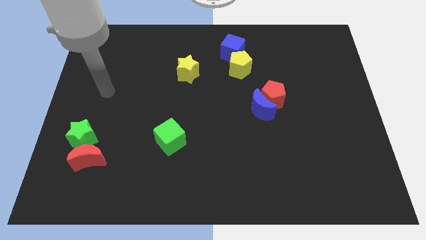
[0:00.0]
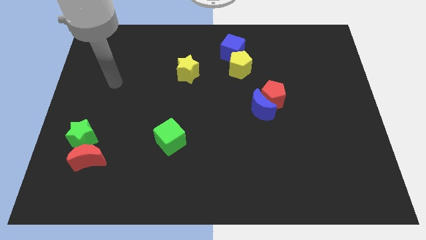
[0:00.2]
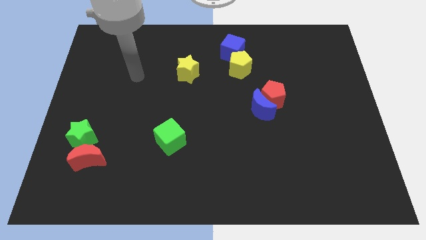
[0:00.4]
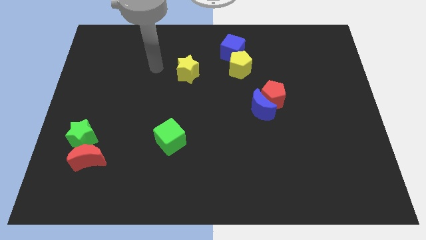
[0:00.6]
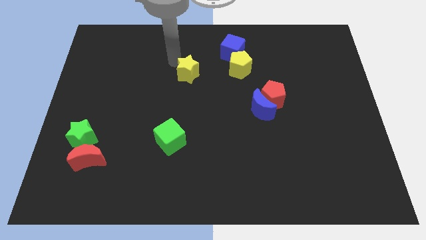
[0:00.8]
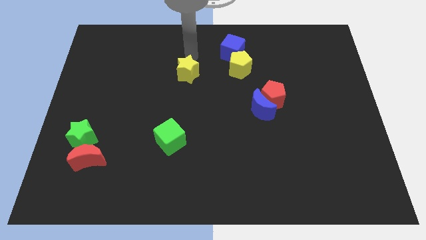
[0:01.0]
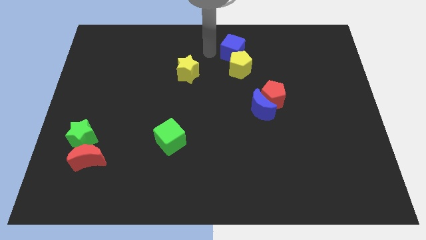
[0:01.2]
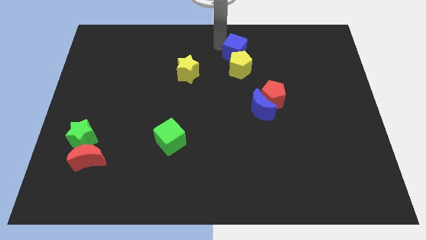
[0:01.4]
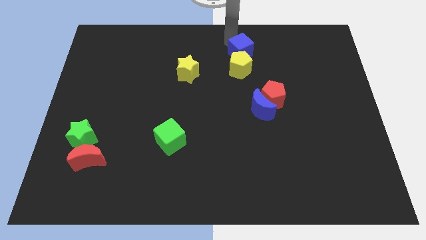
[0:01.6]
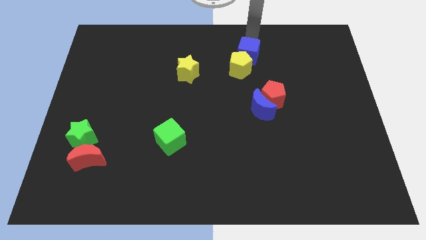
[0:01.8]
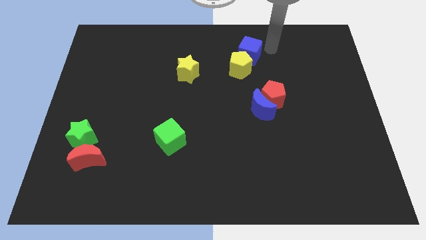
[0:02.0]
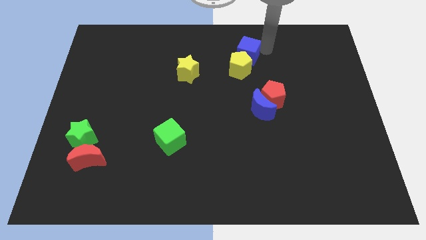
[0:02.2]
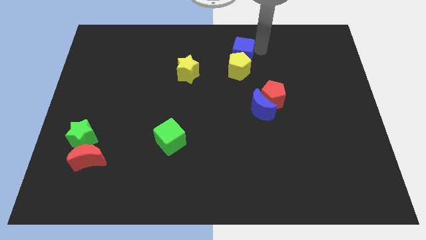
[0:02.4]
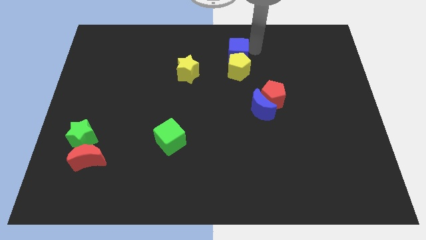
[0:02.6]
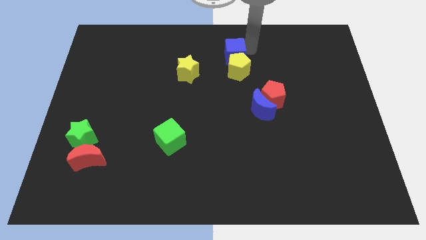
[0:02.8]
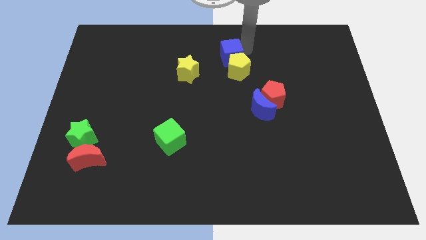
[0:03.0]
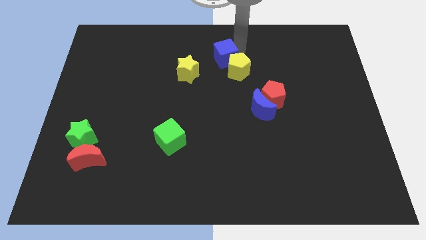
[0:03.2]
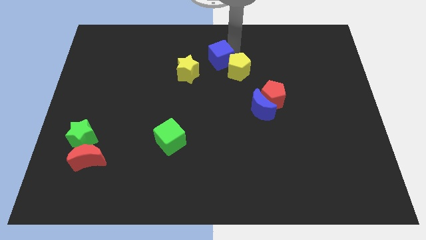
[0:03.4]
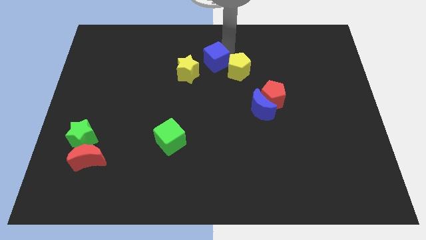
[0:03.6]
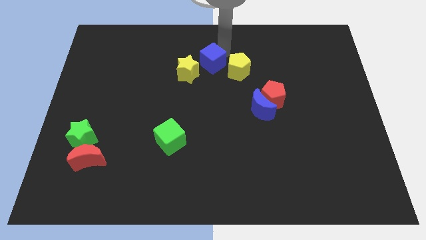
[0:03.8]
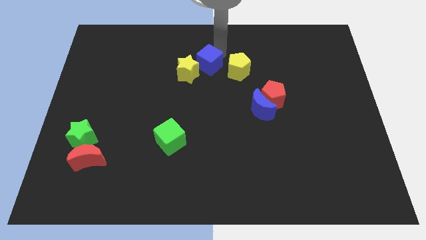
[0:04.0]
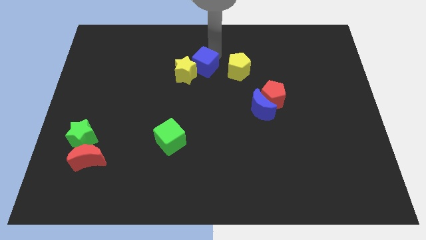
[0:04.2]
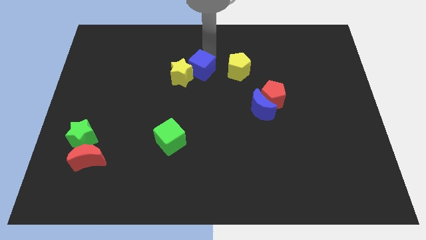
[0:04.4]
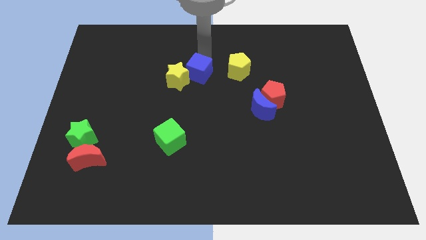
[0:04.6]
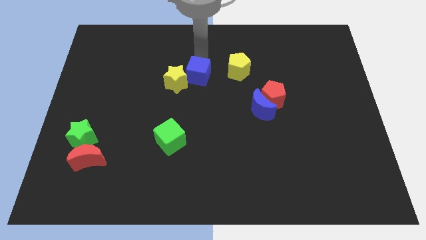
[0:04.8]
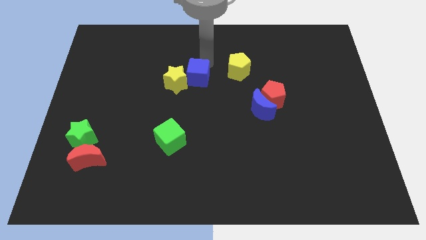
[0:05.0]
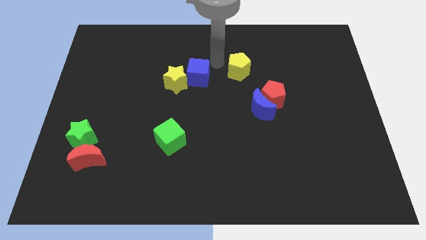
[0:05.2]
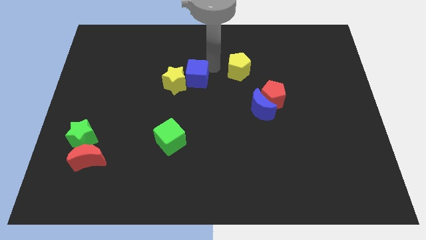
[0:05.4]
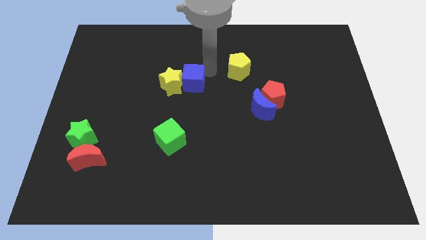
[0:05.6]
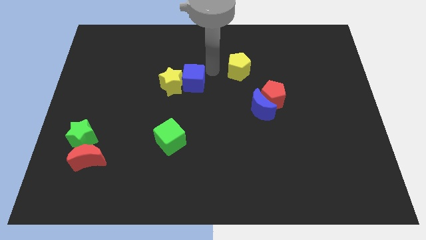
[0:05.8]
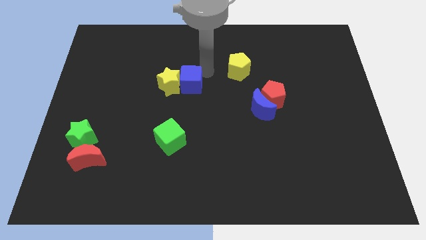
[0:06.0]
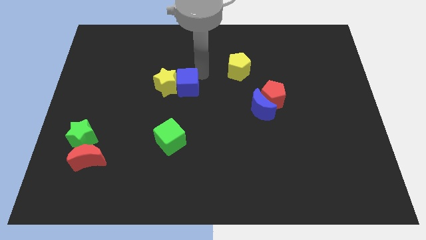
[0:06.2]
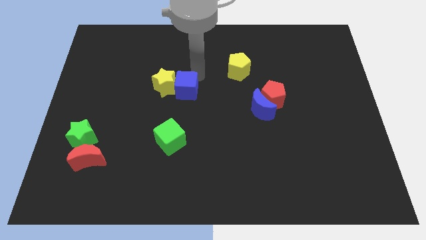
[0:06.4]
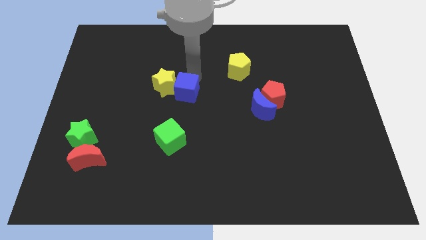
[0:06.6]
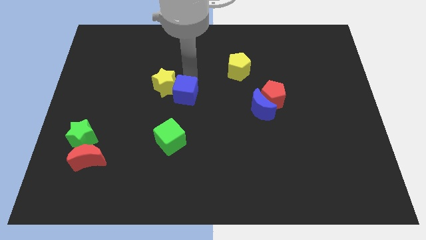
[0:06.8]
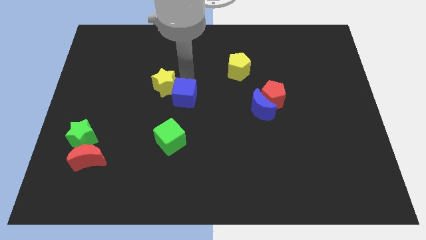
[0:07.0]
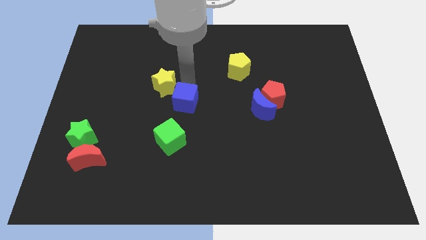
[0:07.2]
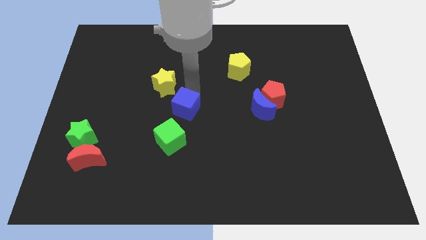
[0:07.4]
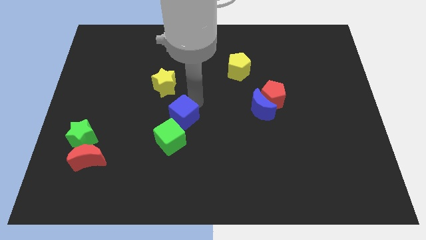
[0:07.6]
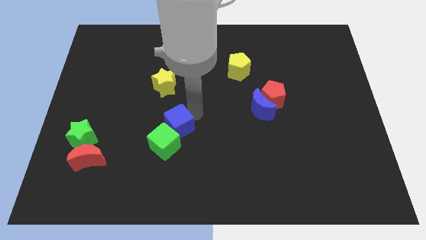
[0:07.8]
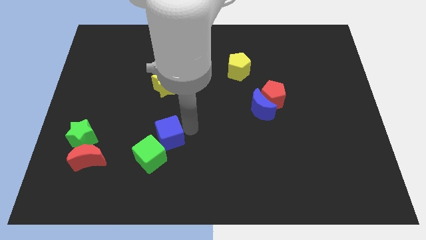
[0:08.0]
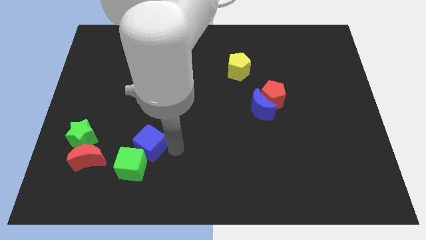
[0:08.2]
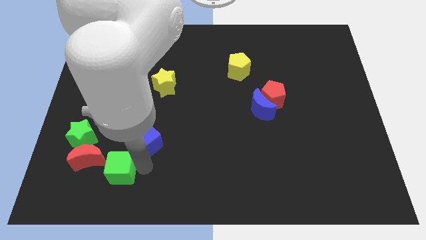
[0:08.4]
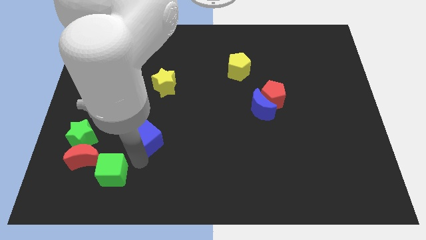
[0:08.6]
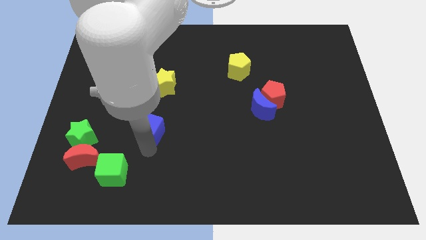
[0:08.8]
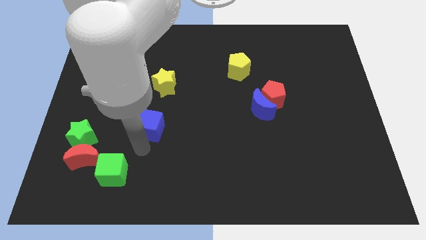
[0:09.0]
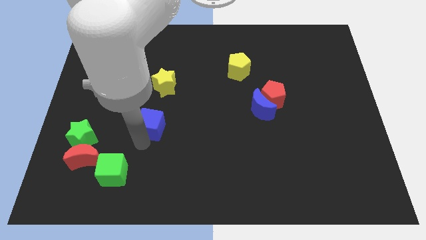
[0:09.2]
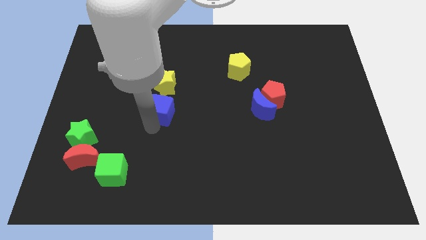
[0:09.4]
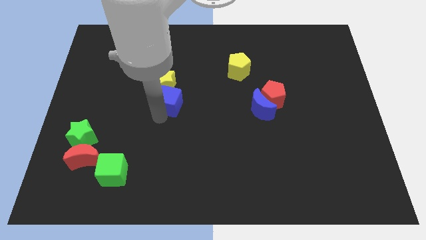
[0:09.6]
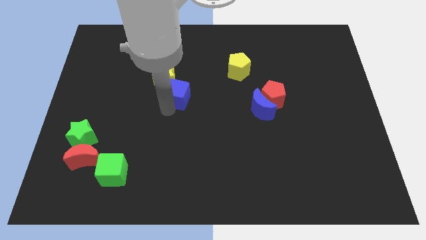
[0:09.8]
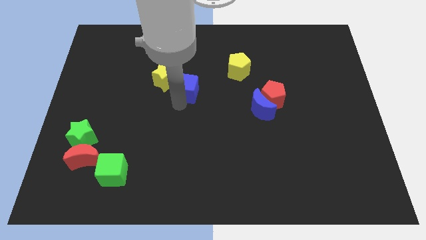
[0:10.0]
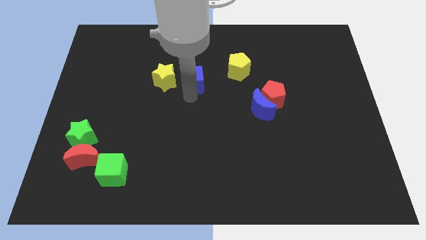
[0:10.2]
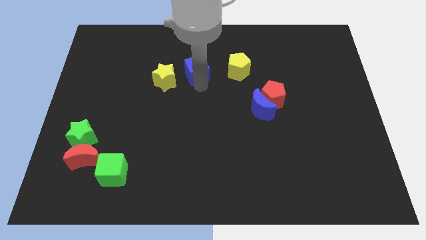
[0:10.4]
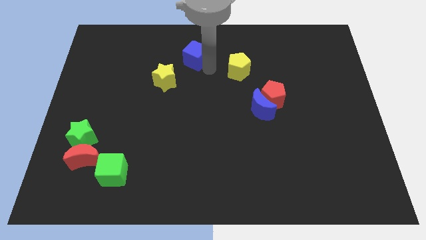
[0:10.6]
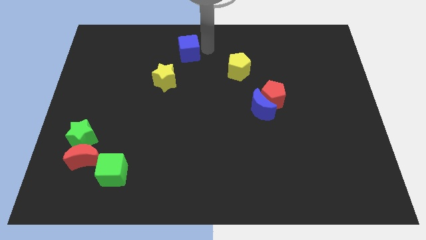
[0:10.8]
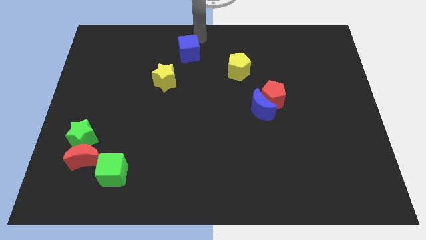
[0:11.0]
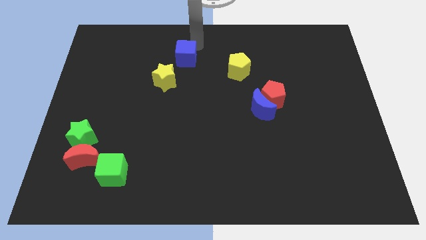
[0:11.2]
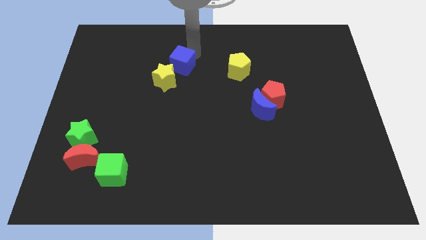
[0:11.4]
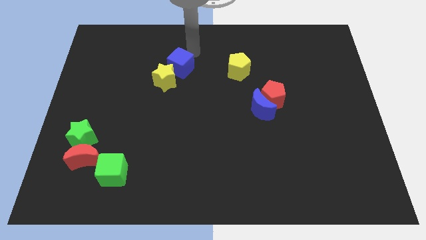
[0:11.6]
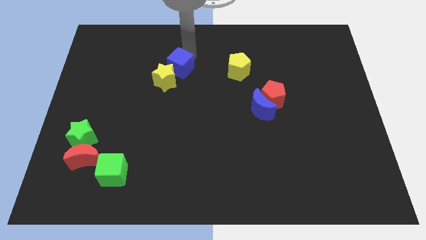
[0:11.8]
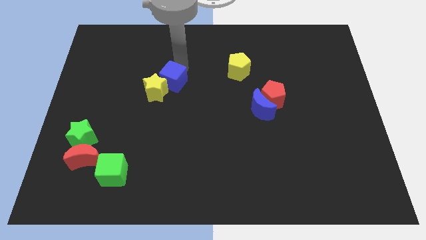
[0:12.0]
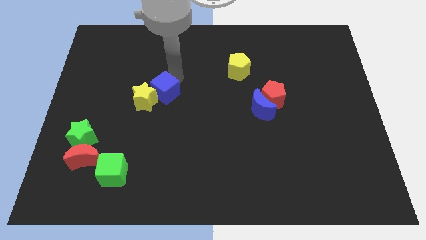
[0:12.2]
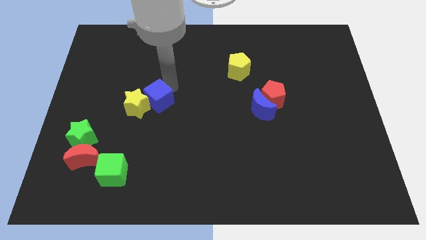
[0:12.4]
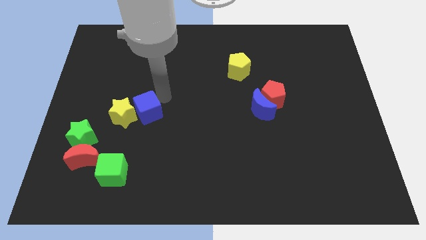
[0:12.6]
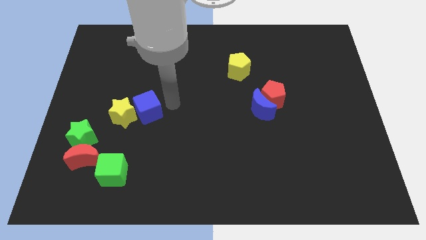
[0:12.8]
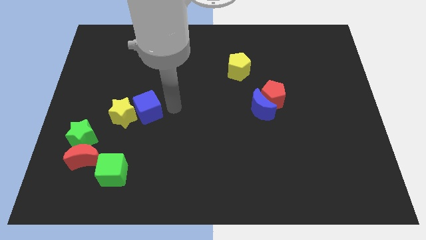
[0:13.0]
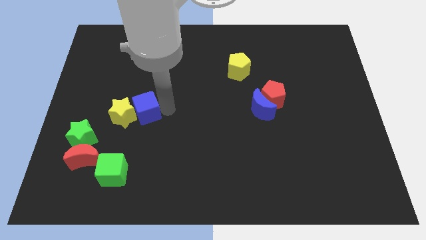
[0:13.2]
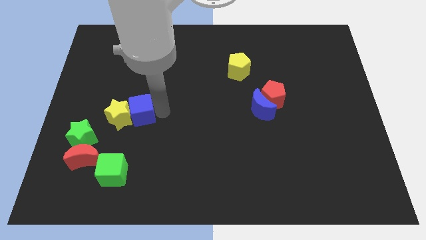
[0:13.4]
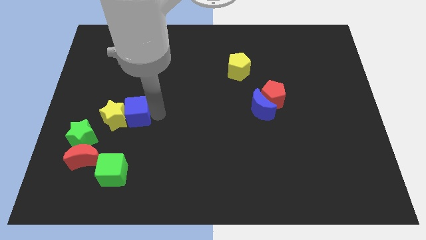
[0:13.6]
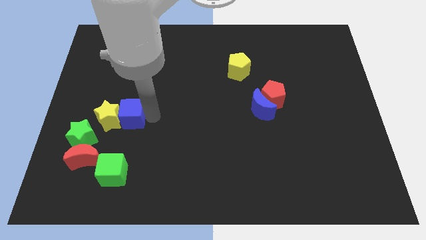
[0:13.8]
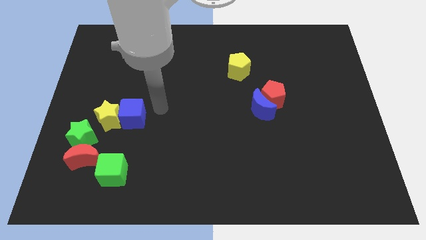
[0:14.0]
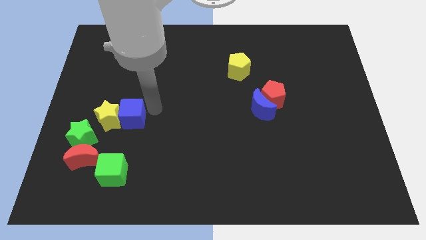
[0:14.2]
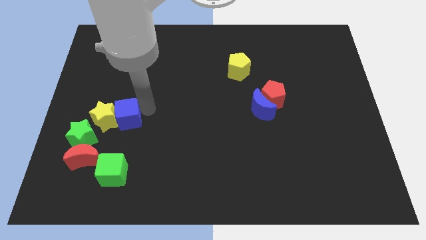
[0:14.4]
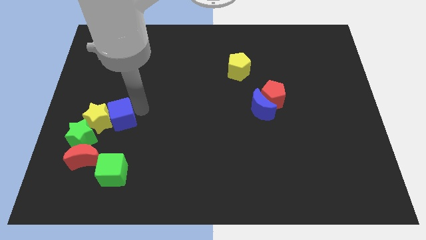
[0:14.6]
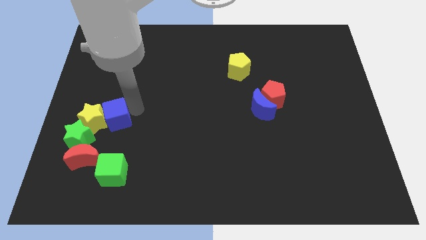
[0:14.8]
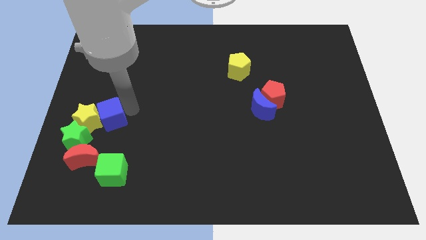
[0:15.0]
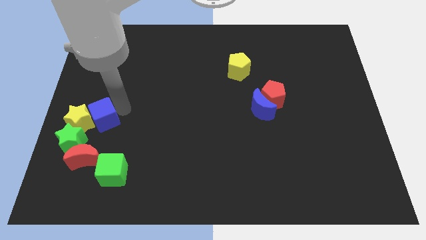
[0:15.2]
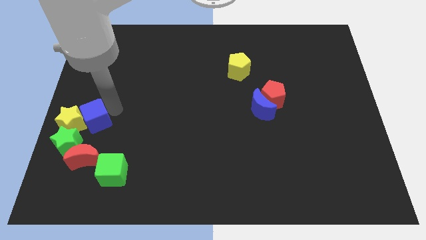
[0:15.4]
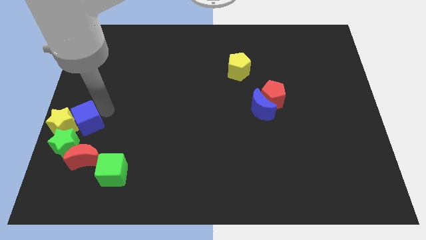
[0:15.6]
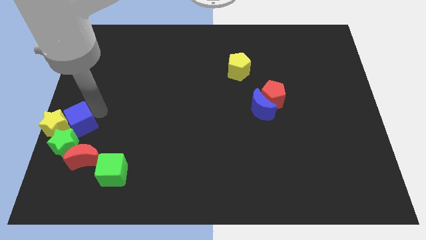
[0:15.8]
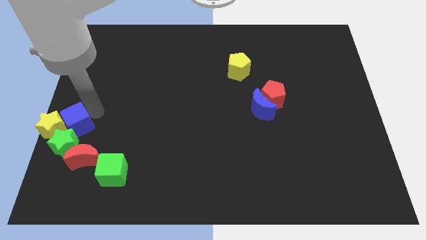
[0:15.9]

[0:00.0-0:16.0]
move the blue cube next to the green star
